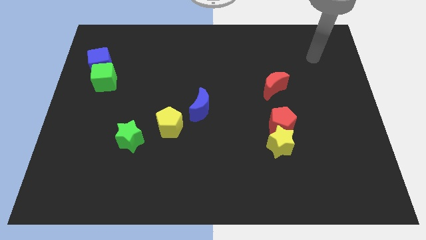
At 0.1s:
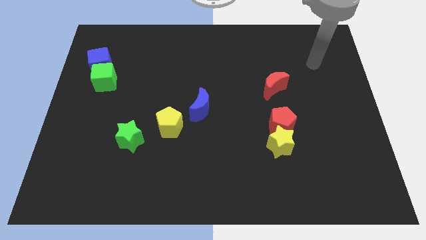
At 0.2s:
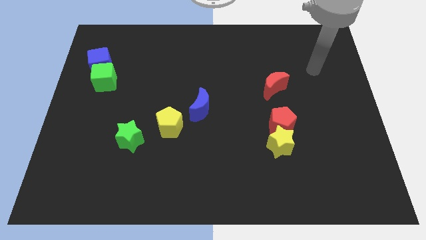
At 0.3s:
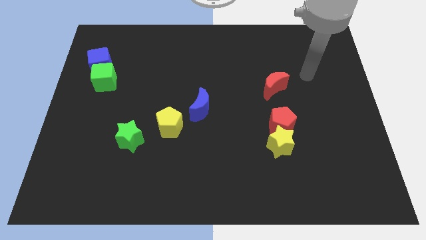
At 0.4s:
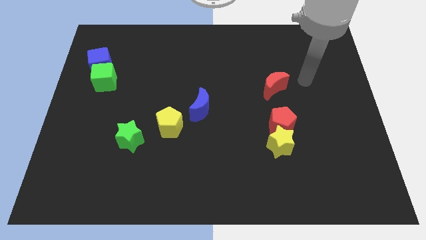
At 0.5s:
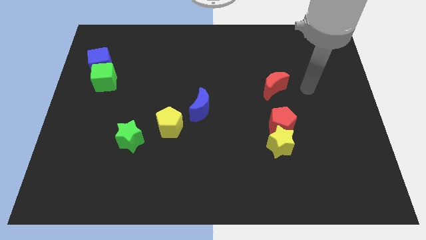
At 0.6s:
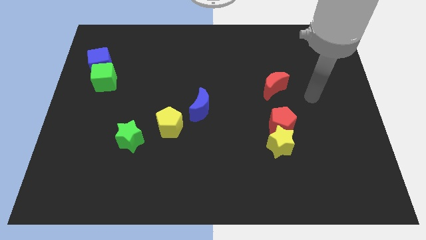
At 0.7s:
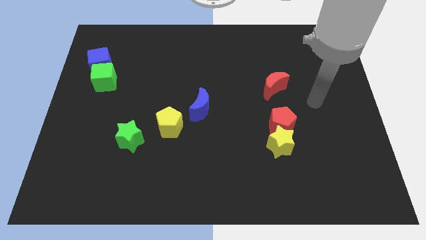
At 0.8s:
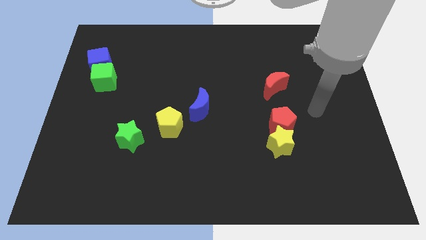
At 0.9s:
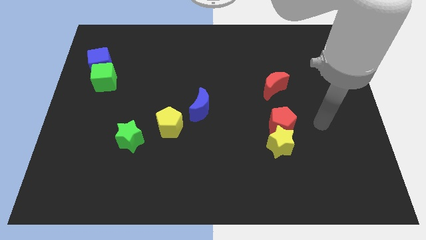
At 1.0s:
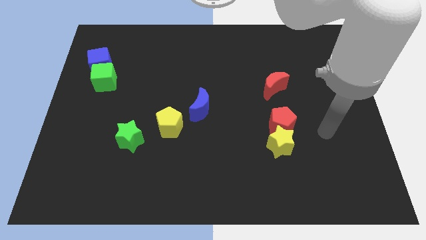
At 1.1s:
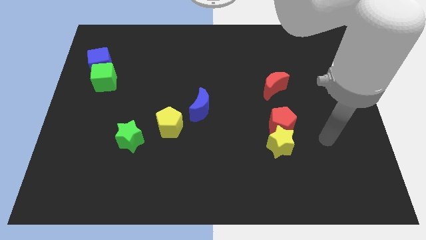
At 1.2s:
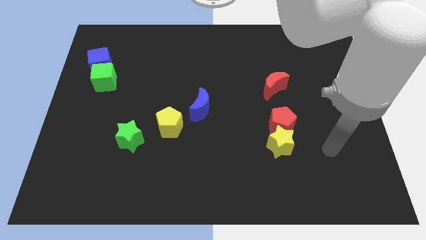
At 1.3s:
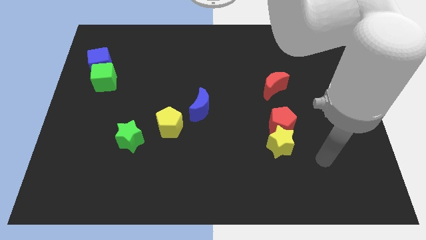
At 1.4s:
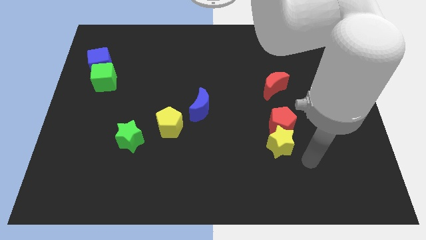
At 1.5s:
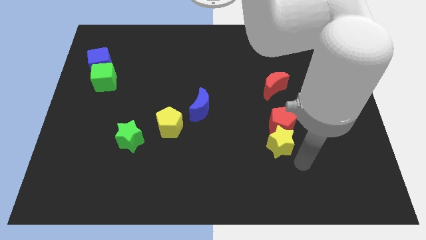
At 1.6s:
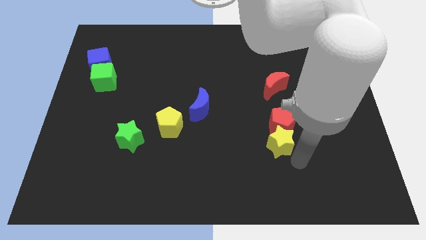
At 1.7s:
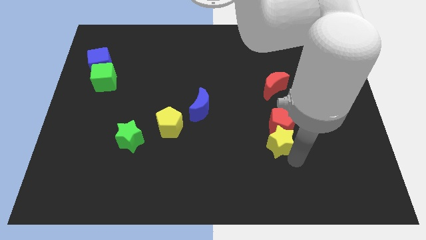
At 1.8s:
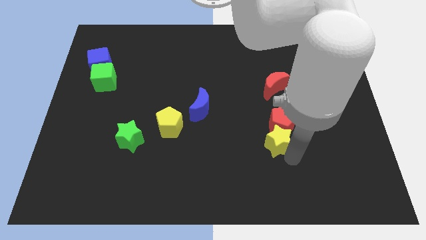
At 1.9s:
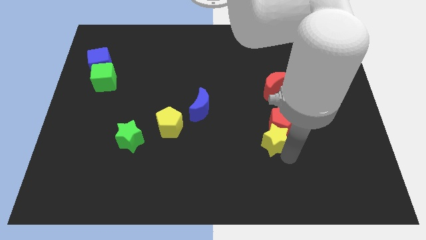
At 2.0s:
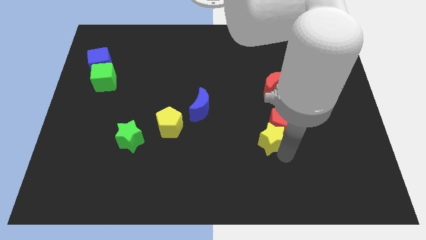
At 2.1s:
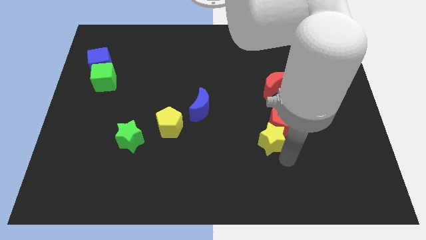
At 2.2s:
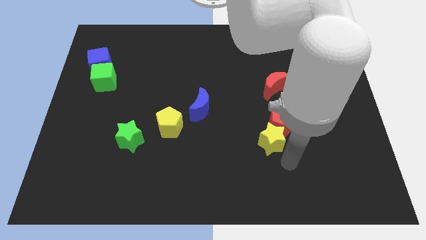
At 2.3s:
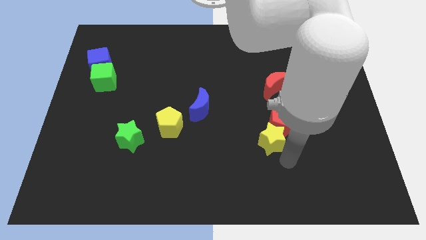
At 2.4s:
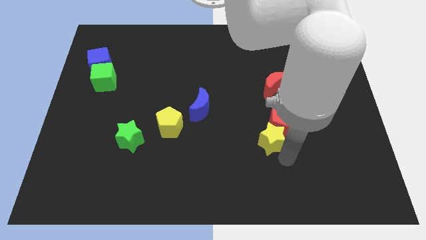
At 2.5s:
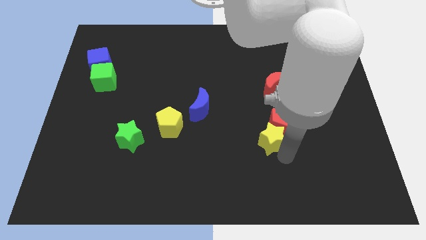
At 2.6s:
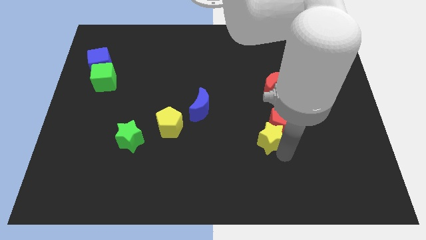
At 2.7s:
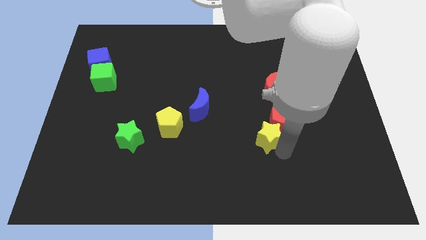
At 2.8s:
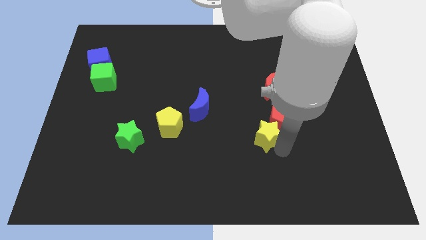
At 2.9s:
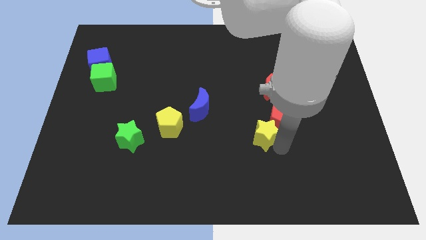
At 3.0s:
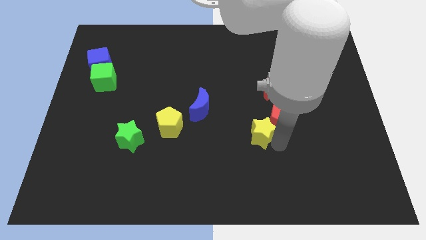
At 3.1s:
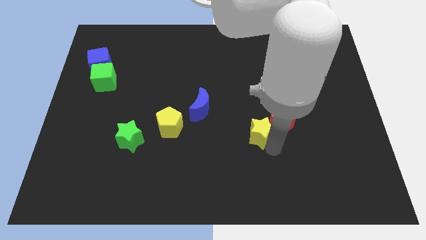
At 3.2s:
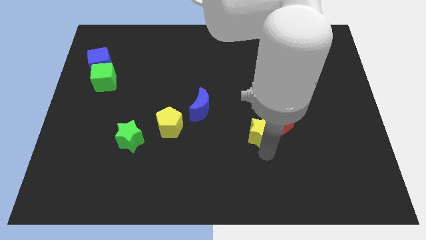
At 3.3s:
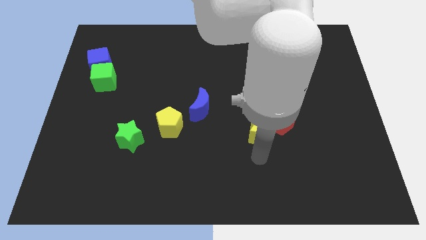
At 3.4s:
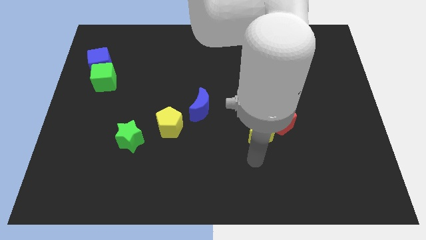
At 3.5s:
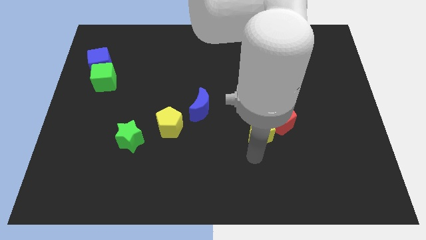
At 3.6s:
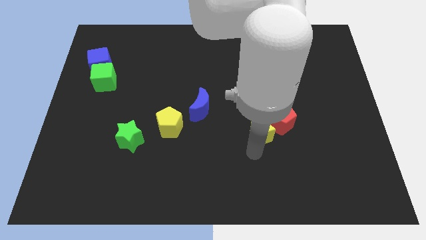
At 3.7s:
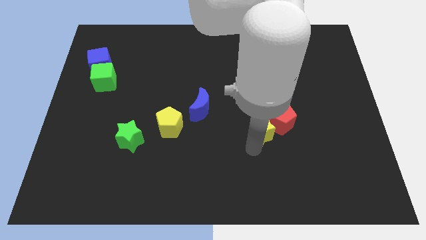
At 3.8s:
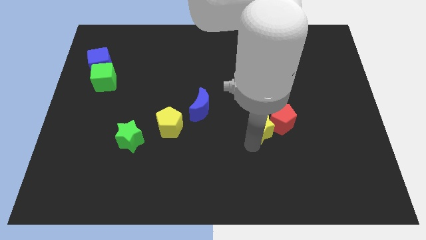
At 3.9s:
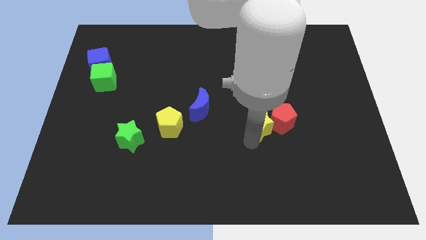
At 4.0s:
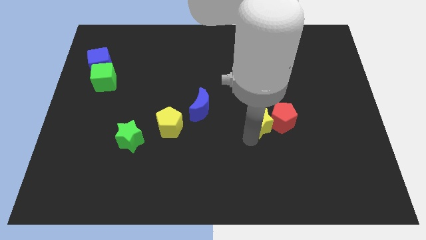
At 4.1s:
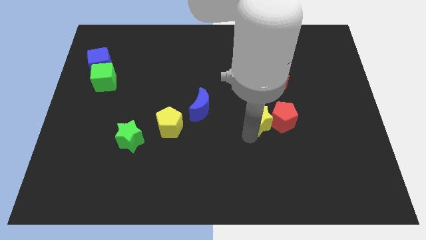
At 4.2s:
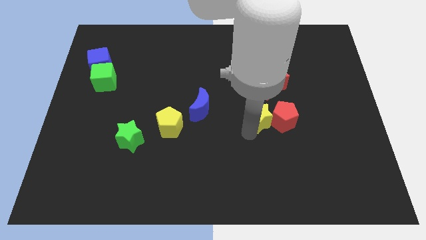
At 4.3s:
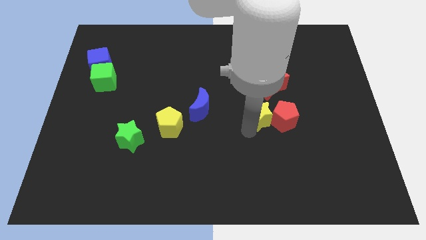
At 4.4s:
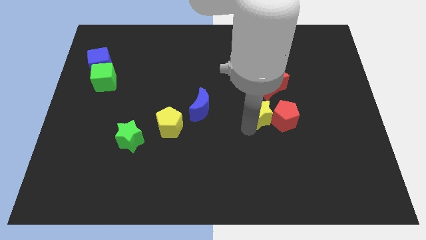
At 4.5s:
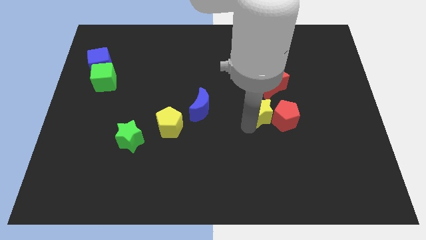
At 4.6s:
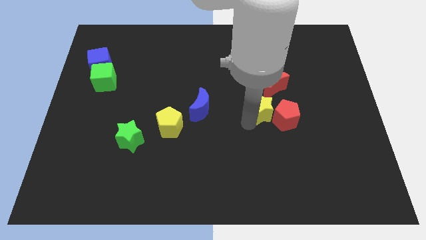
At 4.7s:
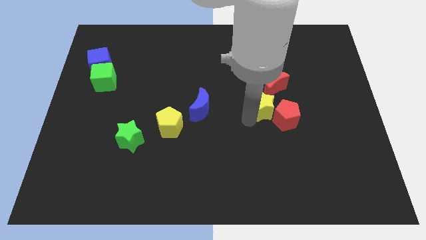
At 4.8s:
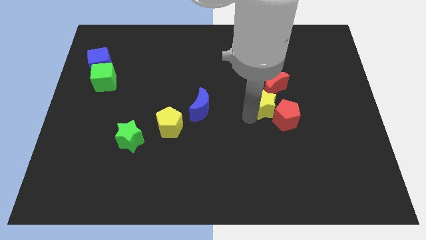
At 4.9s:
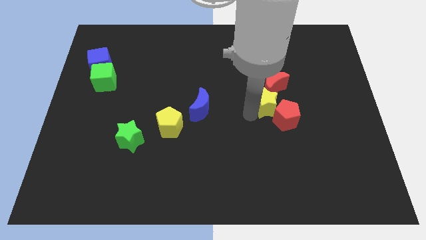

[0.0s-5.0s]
put the yellow star close to the red moon

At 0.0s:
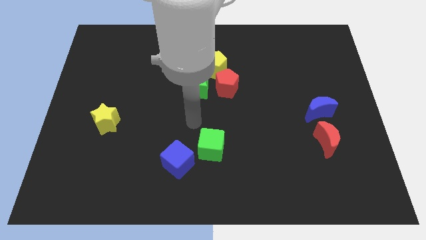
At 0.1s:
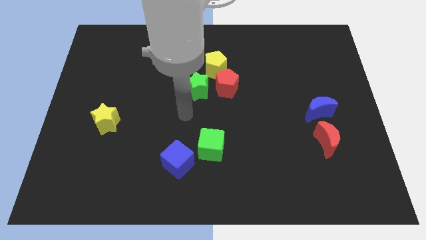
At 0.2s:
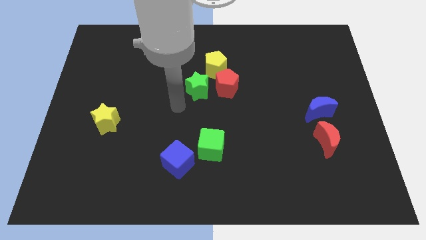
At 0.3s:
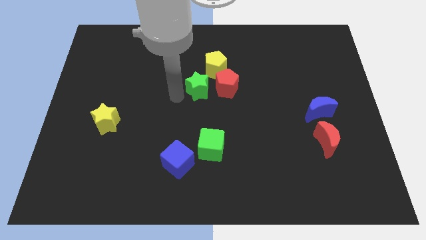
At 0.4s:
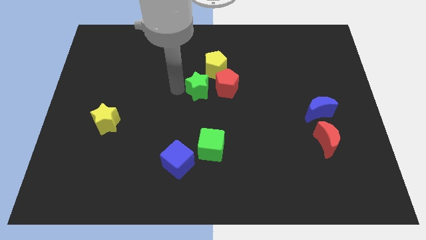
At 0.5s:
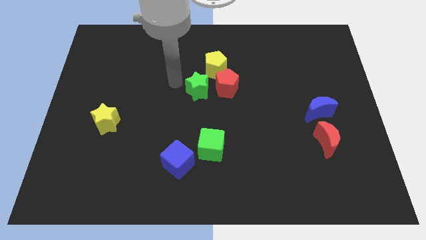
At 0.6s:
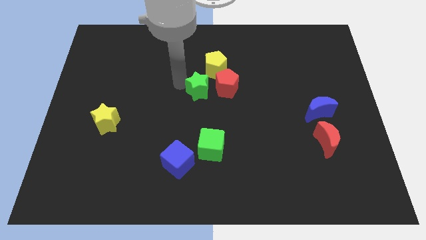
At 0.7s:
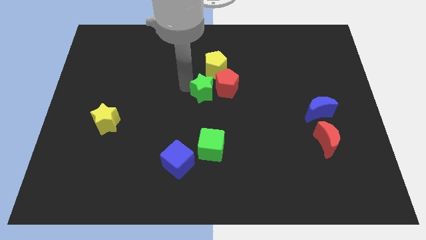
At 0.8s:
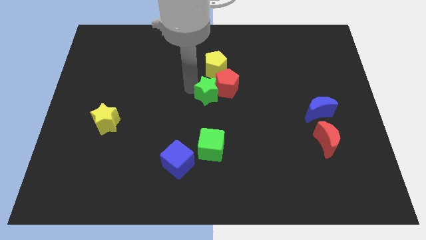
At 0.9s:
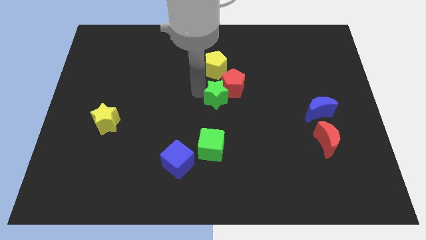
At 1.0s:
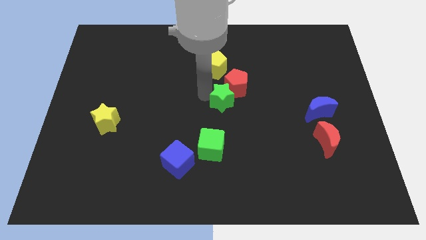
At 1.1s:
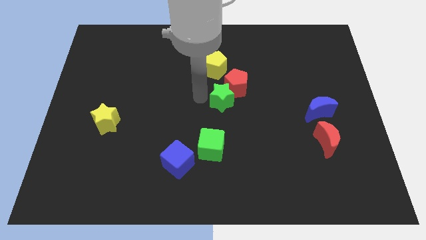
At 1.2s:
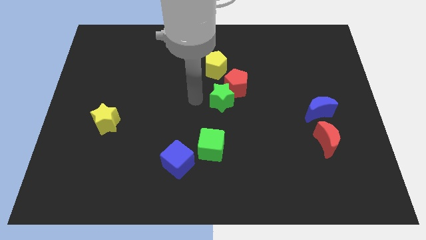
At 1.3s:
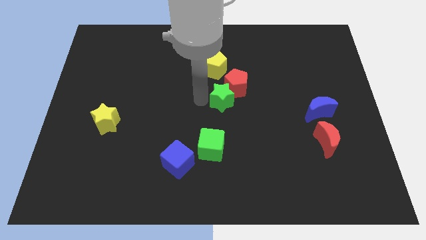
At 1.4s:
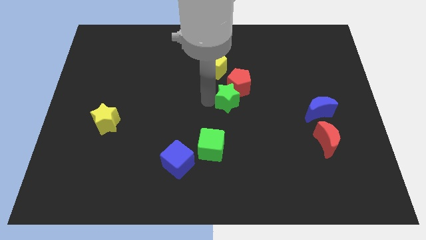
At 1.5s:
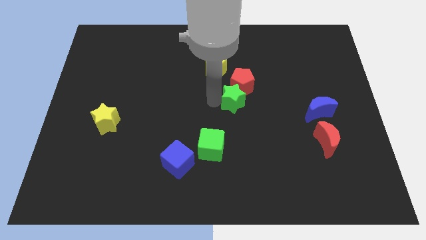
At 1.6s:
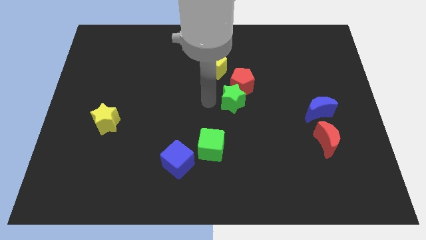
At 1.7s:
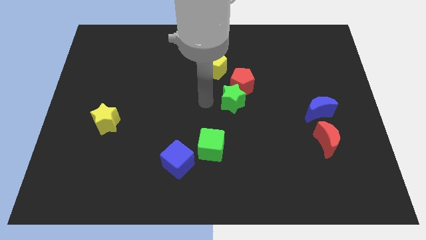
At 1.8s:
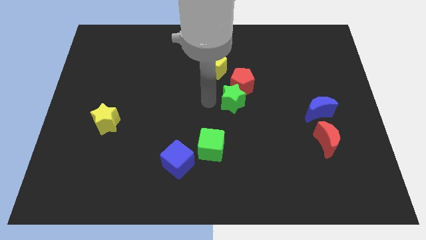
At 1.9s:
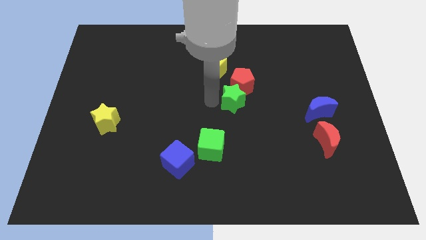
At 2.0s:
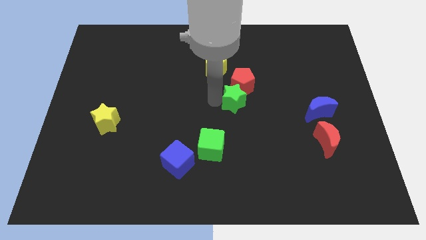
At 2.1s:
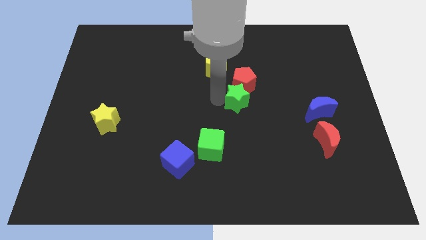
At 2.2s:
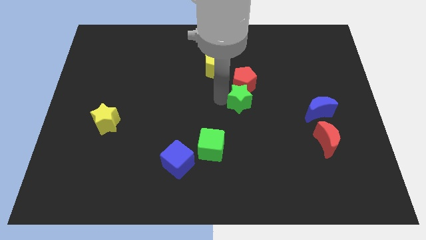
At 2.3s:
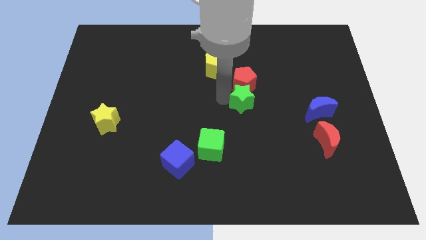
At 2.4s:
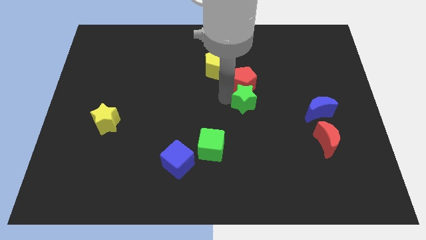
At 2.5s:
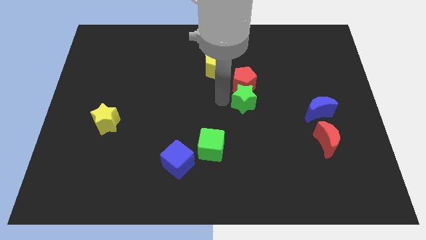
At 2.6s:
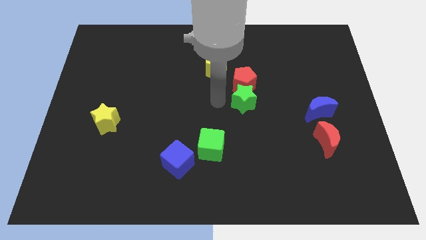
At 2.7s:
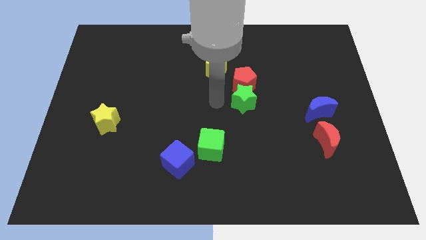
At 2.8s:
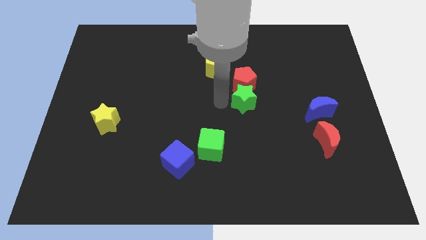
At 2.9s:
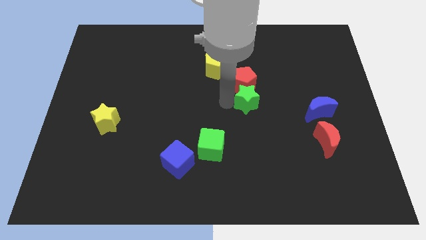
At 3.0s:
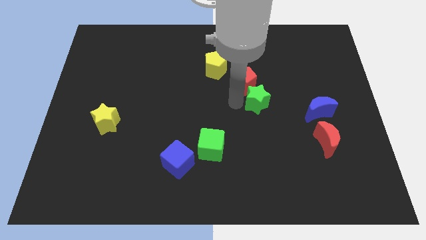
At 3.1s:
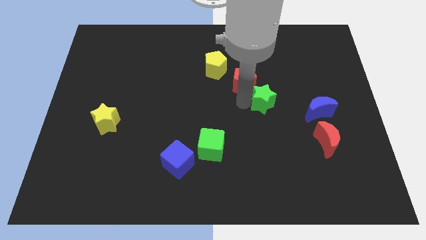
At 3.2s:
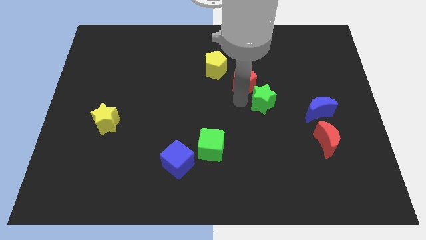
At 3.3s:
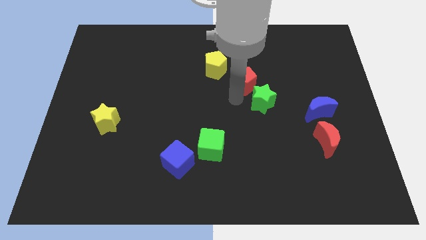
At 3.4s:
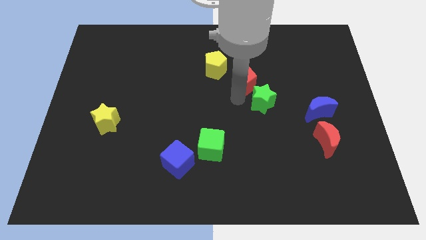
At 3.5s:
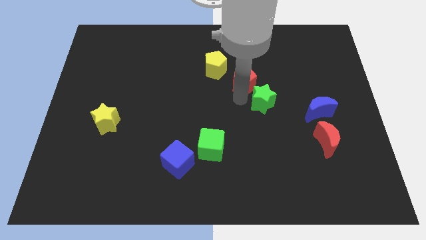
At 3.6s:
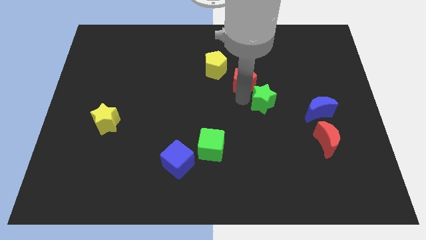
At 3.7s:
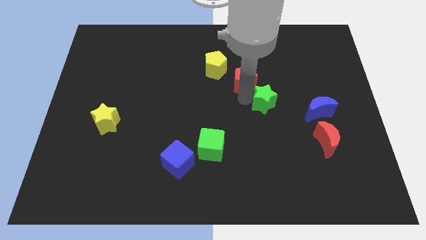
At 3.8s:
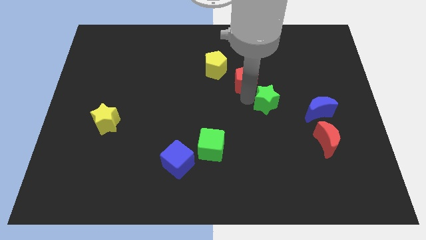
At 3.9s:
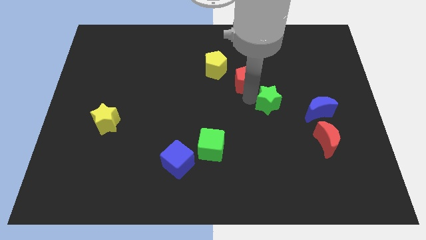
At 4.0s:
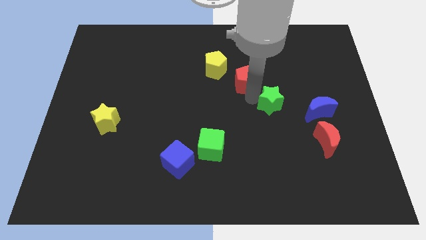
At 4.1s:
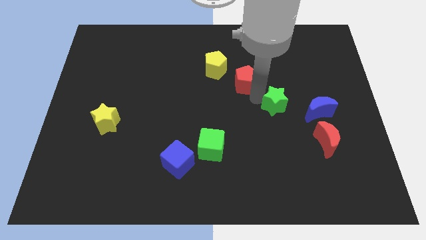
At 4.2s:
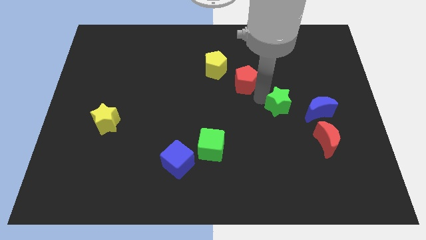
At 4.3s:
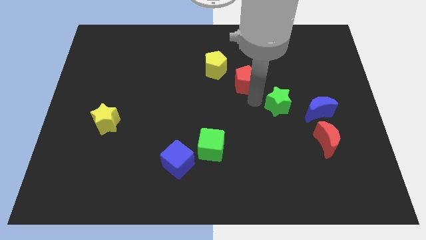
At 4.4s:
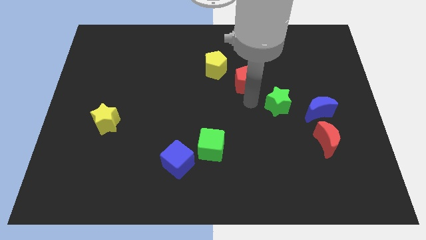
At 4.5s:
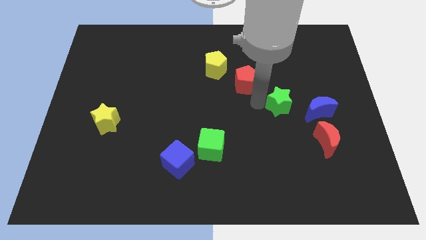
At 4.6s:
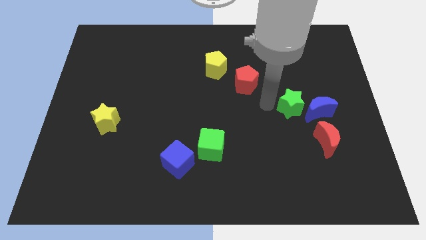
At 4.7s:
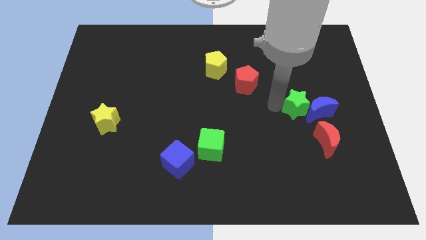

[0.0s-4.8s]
put the green star to the blue moon
